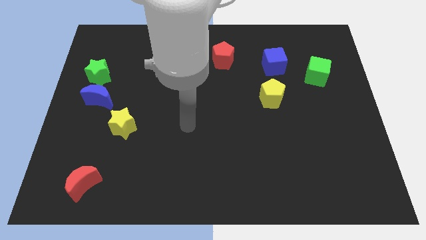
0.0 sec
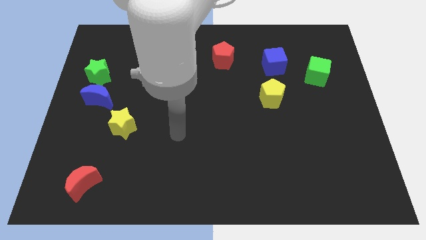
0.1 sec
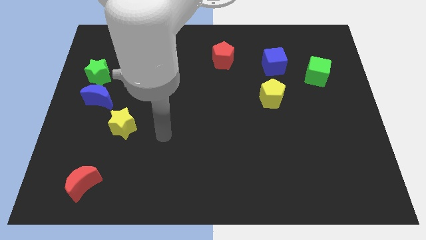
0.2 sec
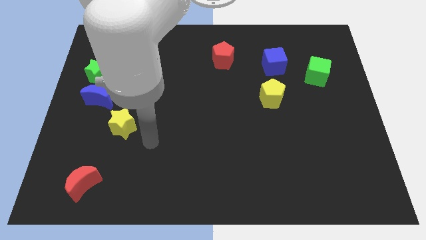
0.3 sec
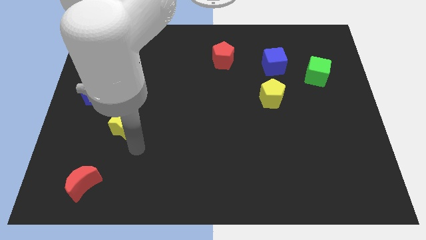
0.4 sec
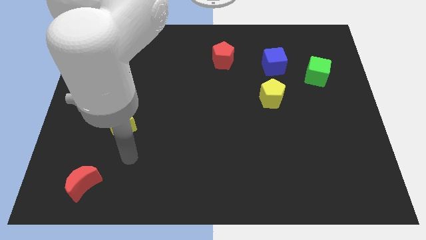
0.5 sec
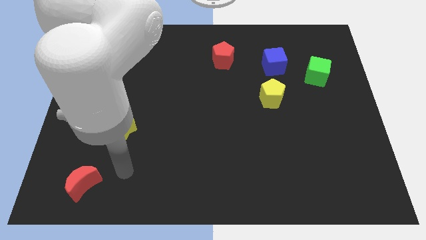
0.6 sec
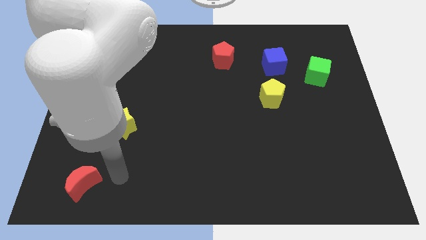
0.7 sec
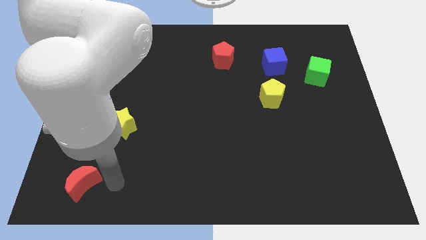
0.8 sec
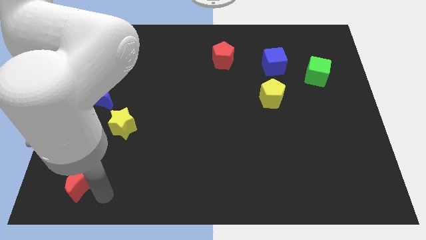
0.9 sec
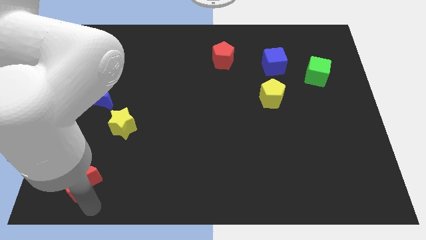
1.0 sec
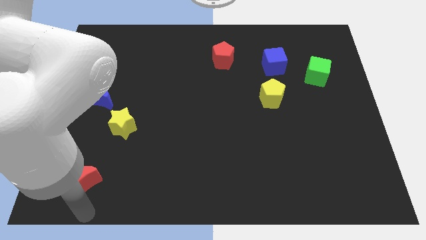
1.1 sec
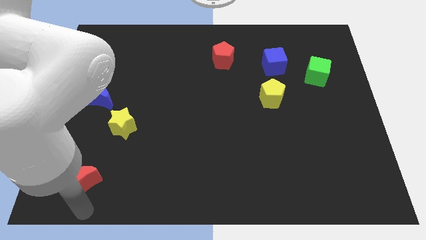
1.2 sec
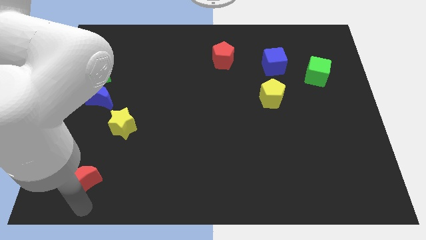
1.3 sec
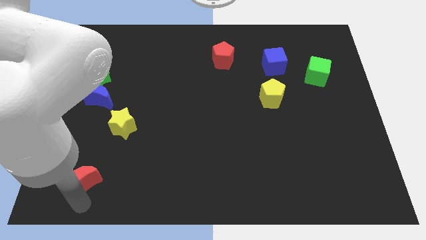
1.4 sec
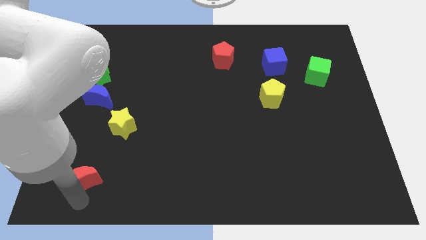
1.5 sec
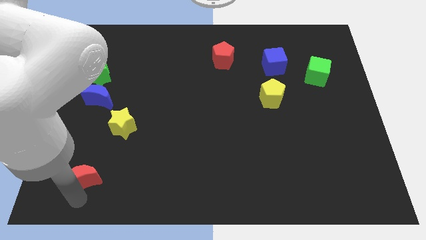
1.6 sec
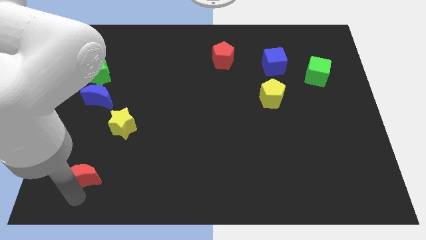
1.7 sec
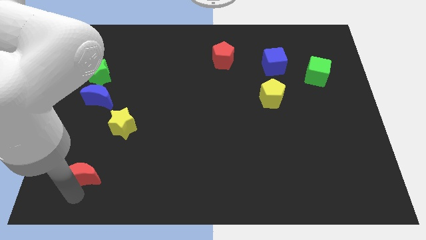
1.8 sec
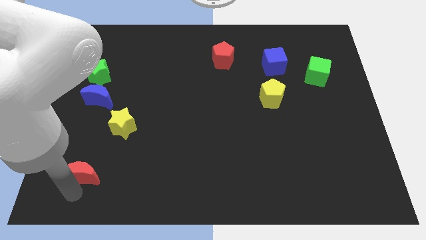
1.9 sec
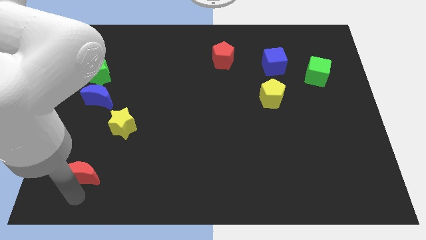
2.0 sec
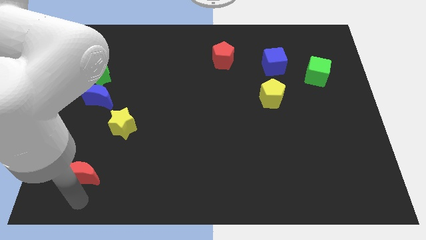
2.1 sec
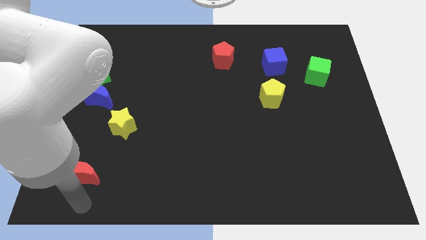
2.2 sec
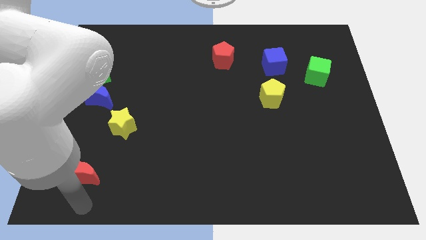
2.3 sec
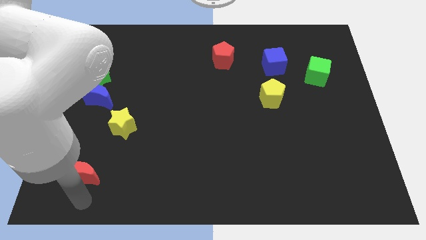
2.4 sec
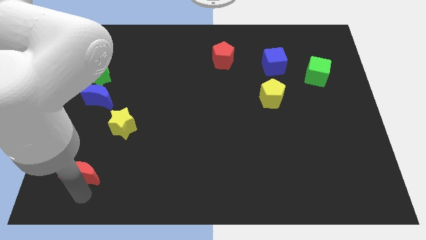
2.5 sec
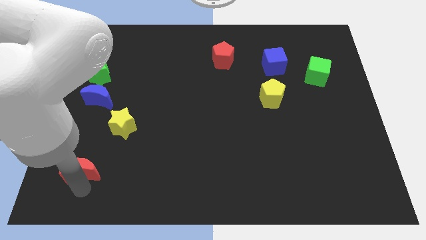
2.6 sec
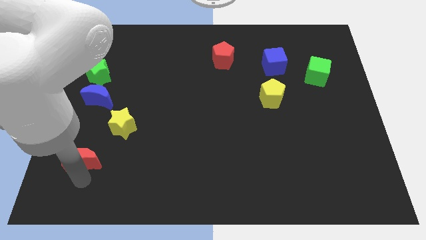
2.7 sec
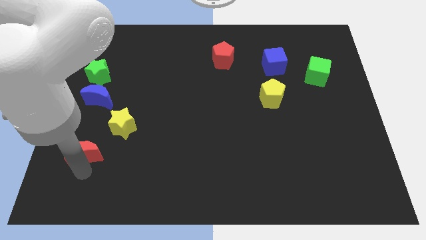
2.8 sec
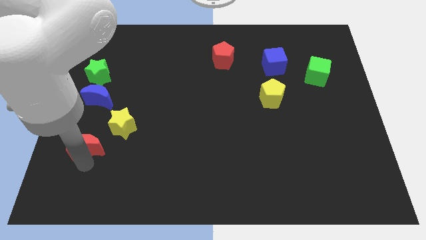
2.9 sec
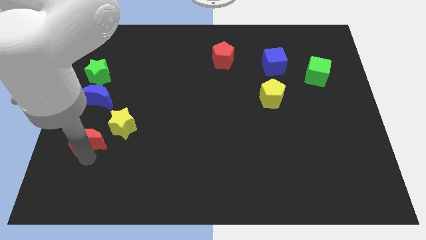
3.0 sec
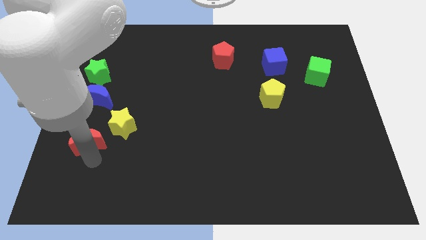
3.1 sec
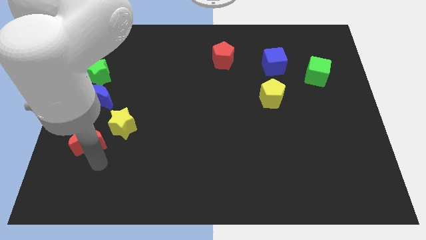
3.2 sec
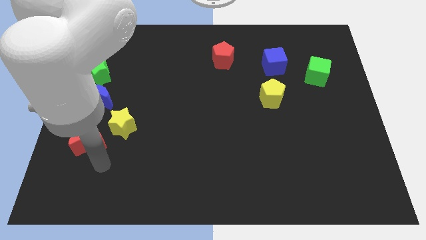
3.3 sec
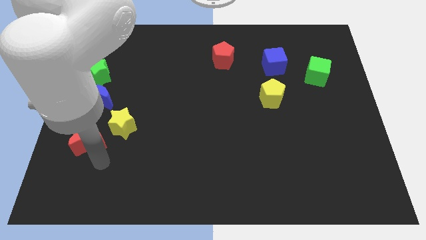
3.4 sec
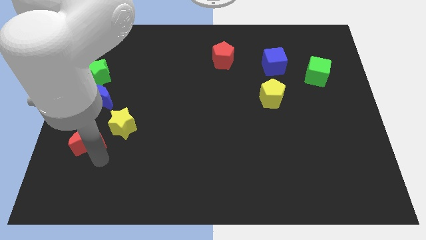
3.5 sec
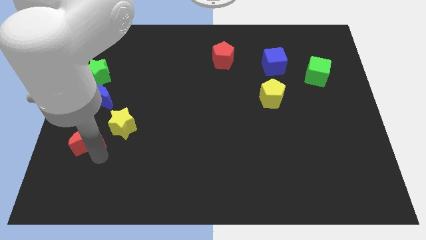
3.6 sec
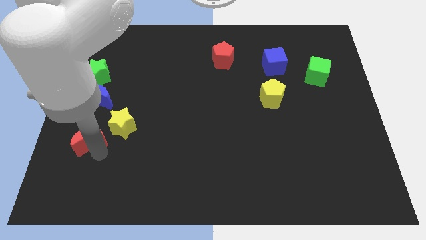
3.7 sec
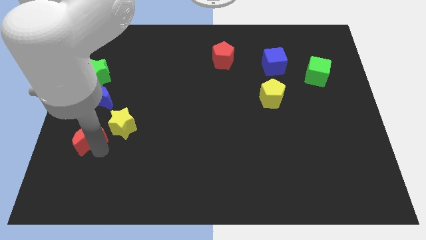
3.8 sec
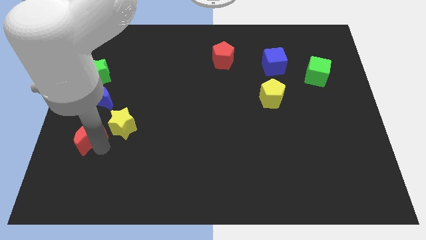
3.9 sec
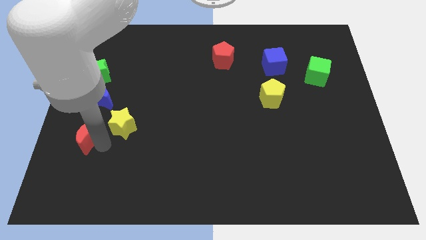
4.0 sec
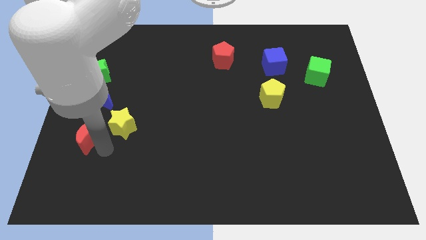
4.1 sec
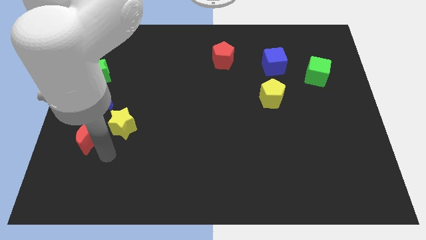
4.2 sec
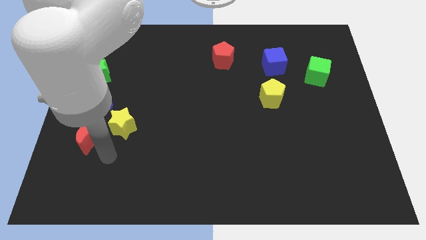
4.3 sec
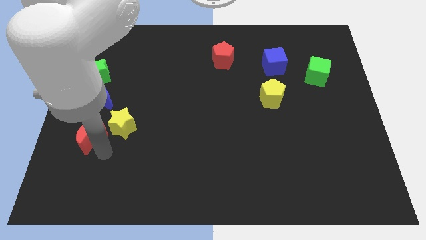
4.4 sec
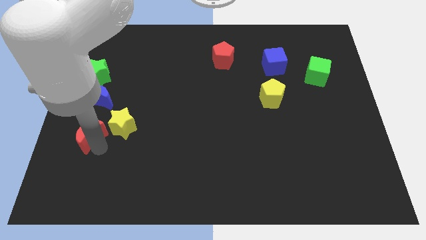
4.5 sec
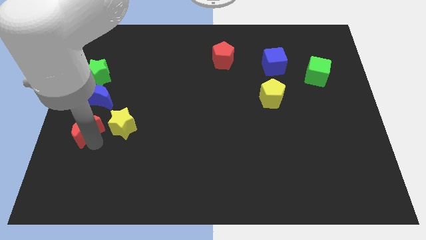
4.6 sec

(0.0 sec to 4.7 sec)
put the red moon to the center left

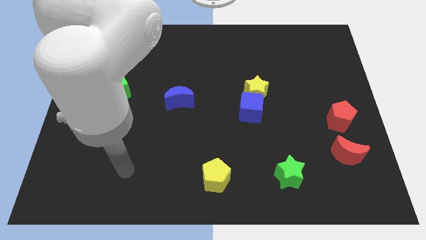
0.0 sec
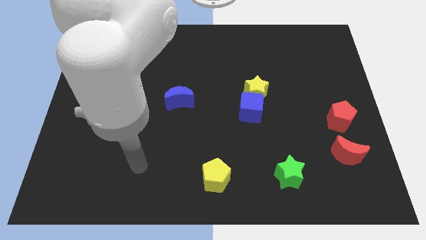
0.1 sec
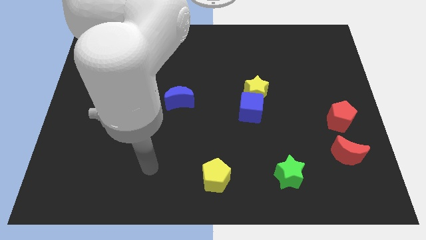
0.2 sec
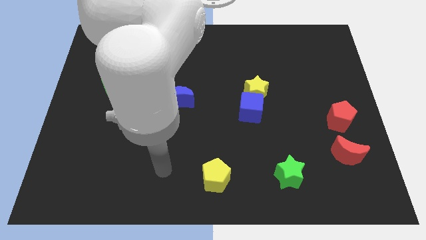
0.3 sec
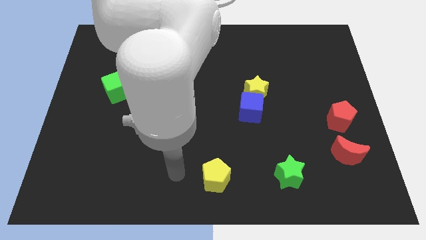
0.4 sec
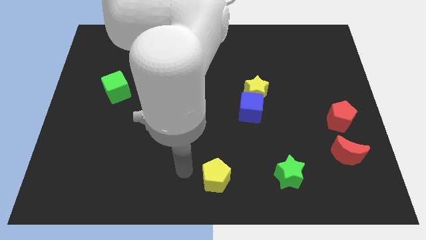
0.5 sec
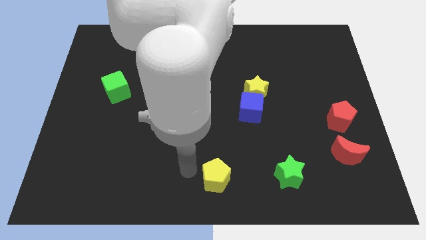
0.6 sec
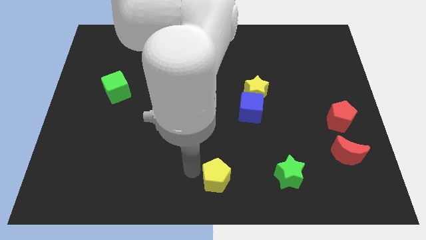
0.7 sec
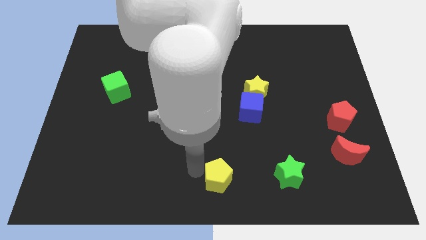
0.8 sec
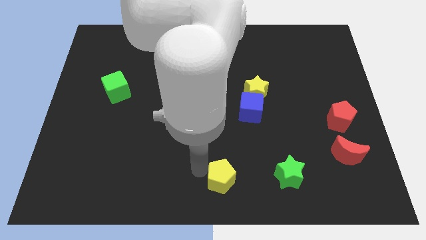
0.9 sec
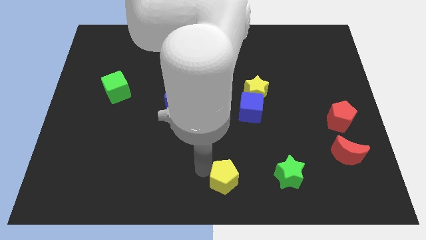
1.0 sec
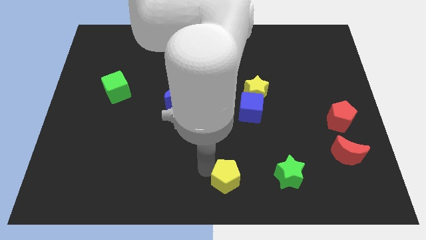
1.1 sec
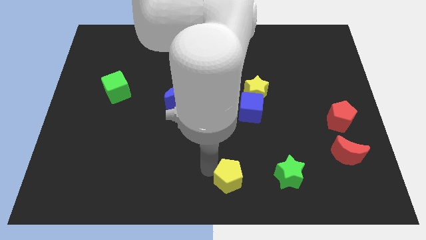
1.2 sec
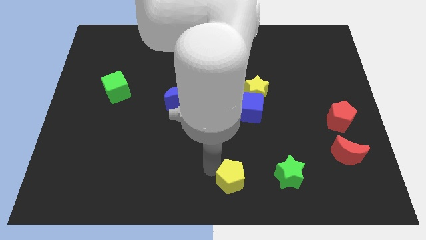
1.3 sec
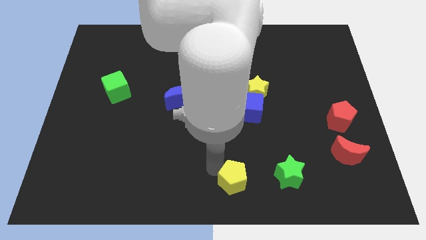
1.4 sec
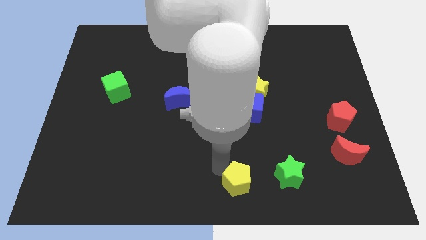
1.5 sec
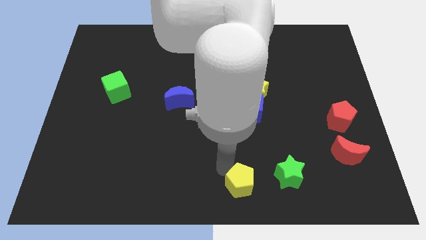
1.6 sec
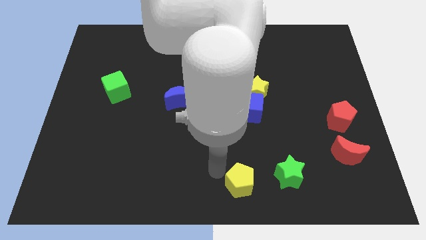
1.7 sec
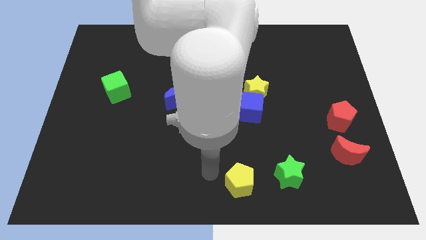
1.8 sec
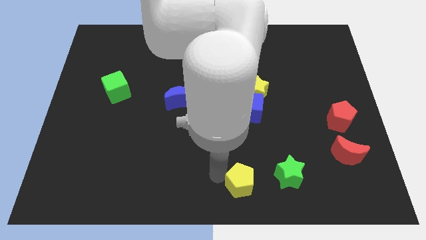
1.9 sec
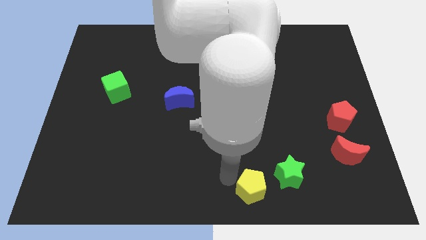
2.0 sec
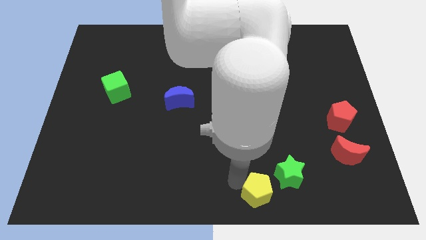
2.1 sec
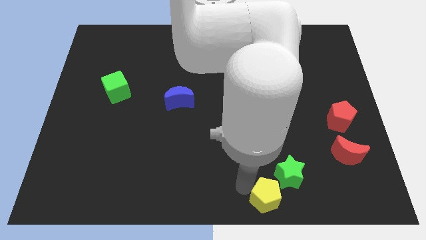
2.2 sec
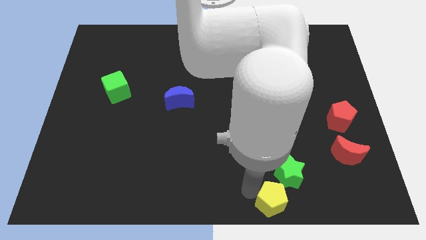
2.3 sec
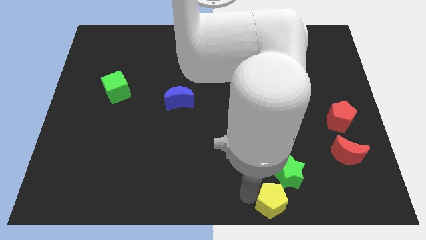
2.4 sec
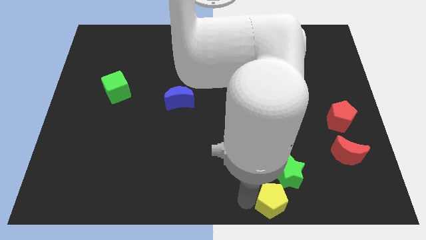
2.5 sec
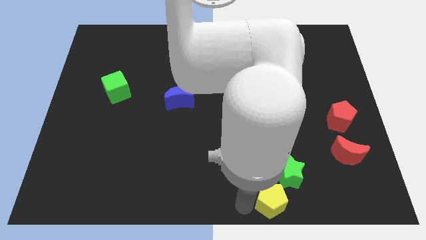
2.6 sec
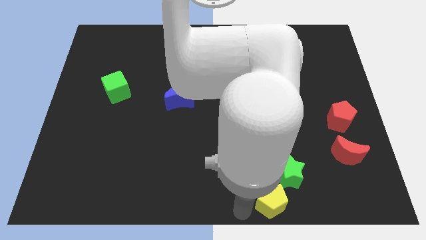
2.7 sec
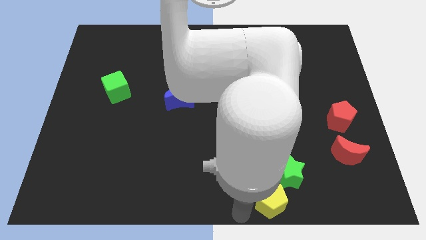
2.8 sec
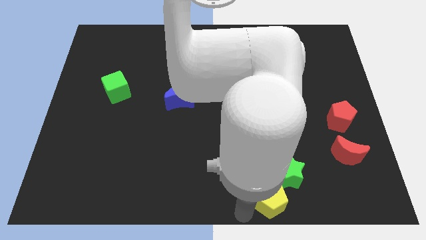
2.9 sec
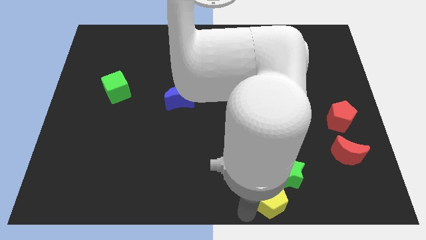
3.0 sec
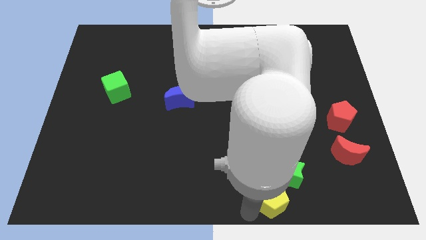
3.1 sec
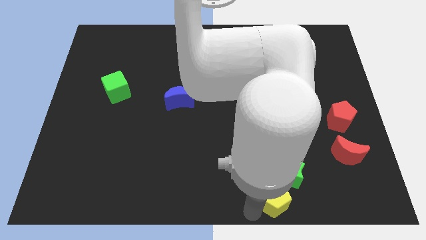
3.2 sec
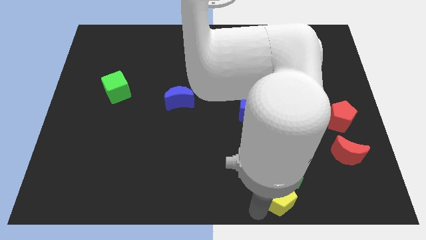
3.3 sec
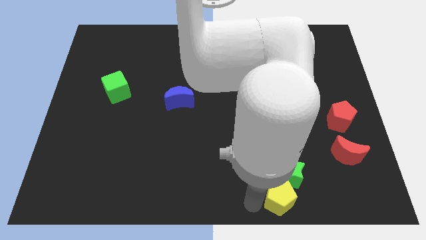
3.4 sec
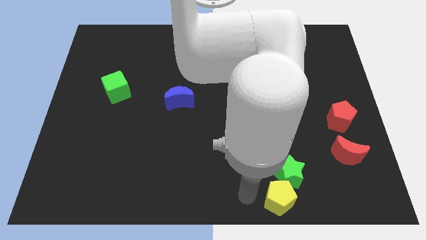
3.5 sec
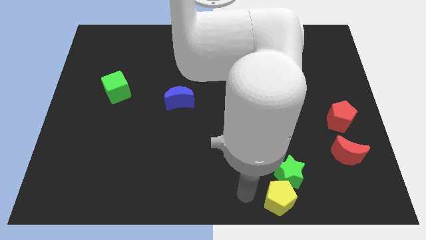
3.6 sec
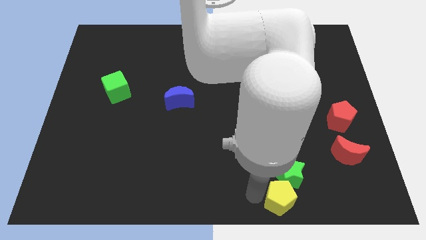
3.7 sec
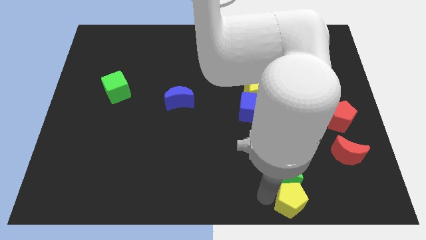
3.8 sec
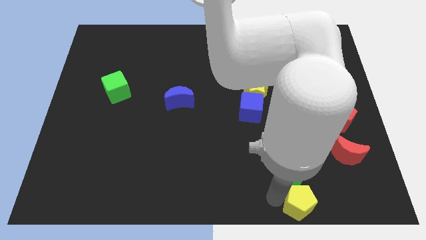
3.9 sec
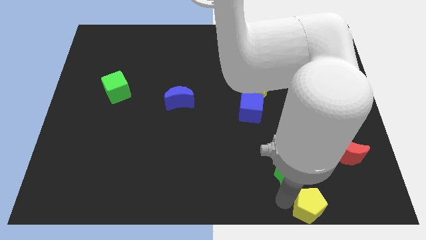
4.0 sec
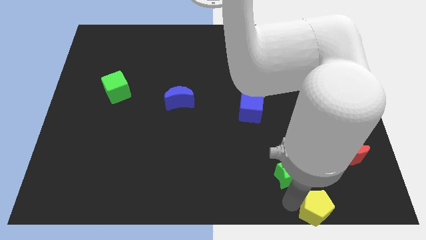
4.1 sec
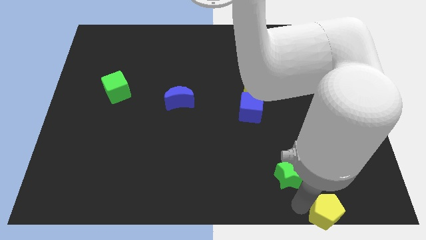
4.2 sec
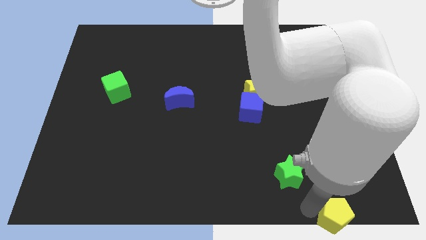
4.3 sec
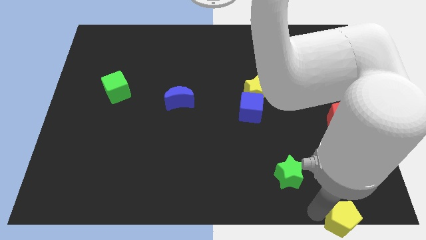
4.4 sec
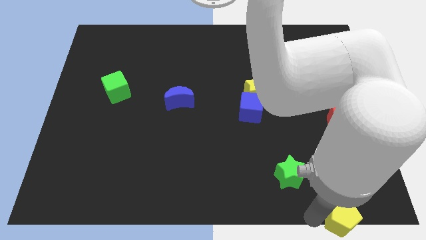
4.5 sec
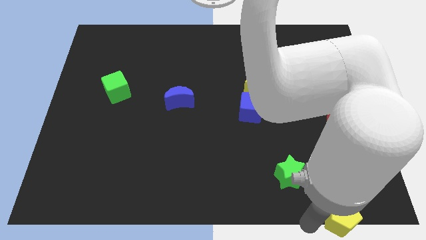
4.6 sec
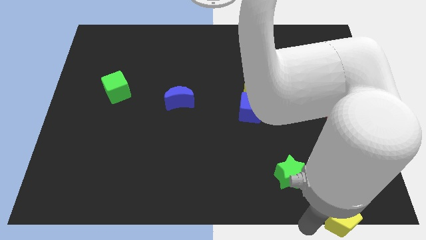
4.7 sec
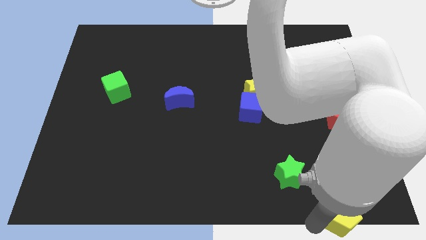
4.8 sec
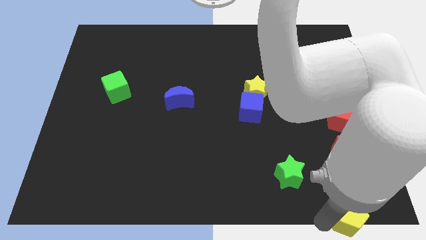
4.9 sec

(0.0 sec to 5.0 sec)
slide the yellow pentagon to the lower right corner
